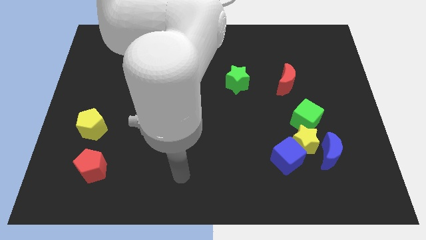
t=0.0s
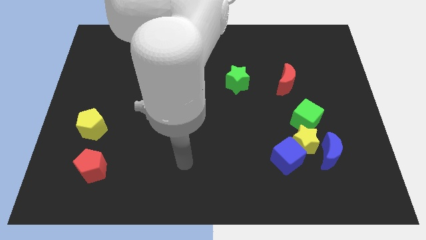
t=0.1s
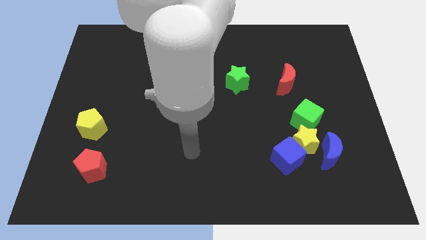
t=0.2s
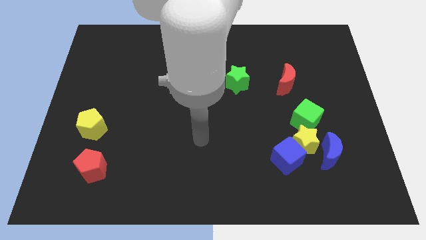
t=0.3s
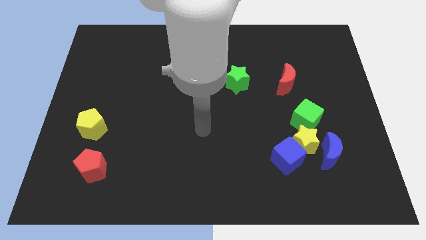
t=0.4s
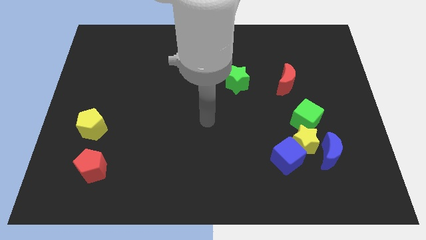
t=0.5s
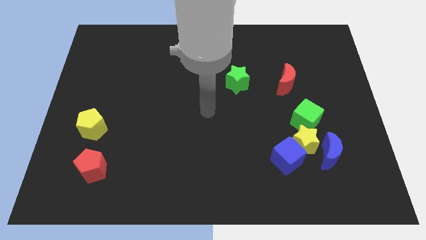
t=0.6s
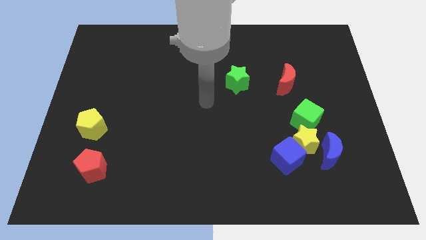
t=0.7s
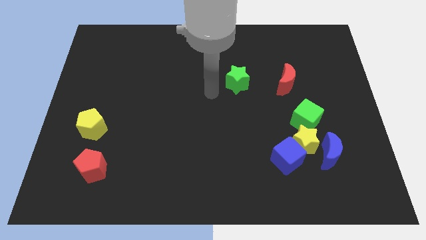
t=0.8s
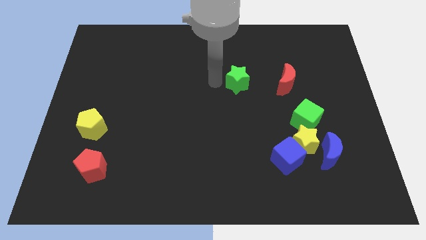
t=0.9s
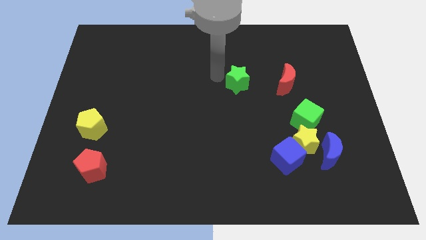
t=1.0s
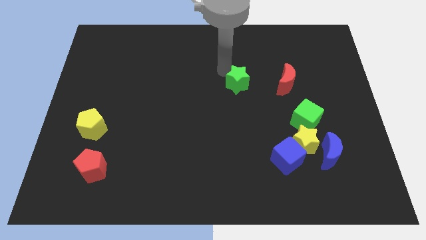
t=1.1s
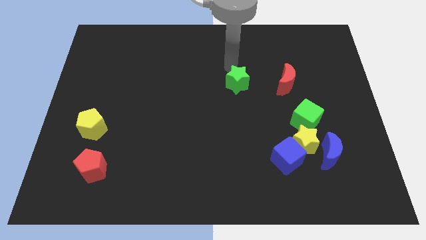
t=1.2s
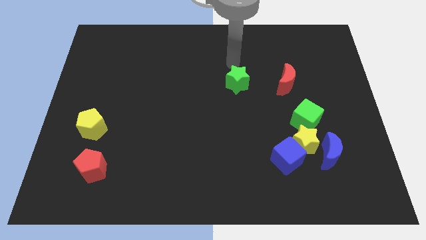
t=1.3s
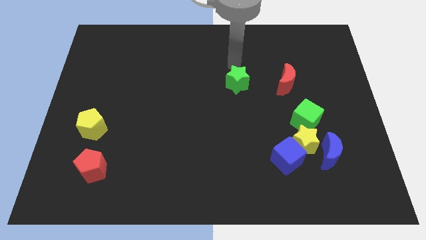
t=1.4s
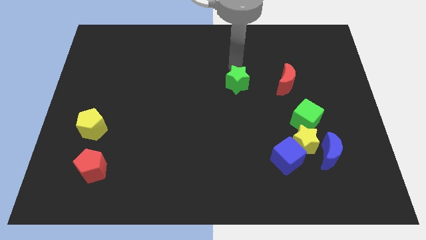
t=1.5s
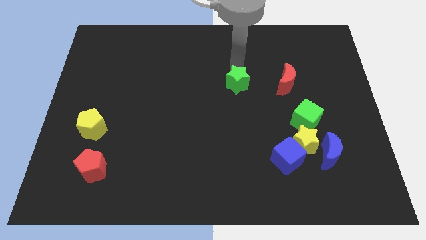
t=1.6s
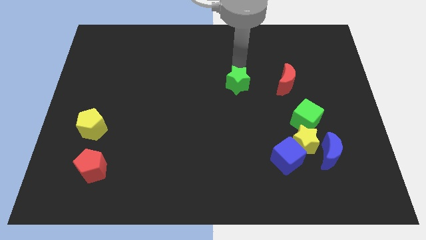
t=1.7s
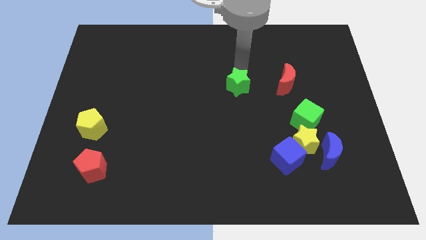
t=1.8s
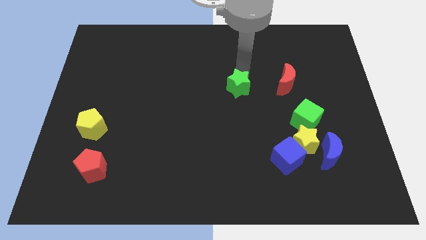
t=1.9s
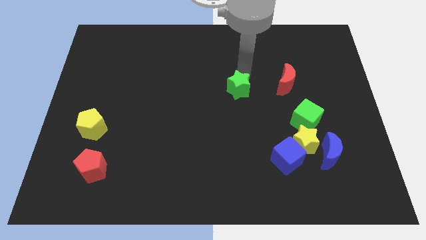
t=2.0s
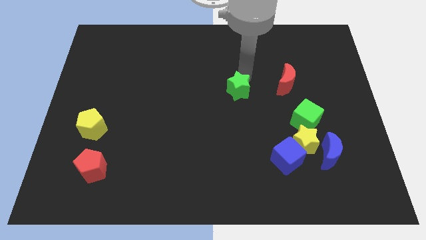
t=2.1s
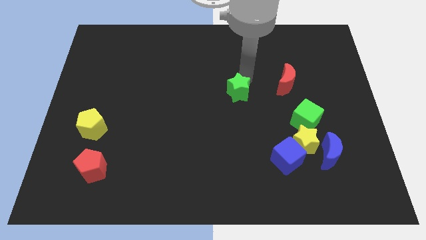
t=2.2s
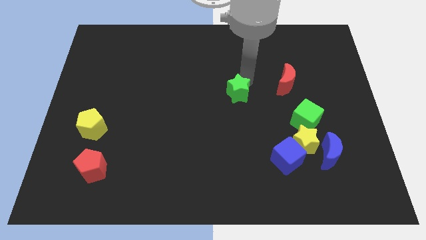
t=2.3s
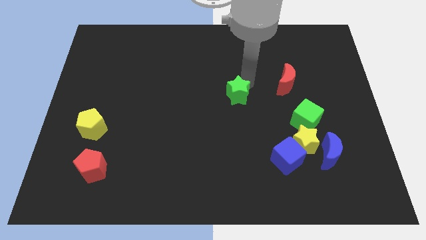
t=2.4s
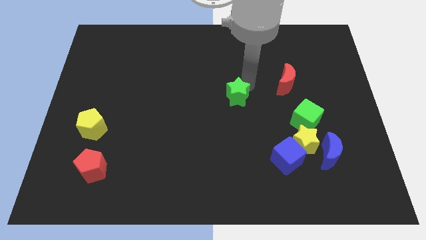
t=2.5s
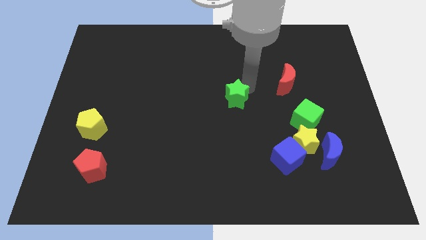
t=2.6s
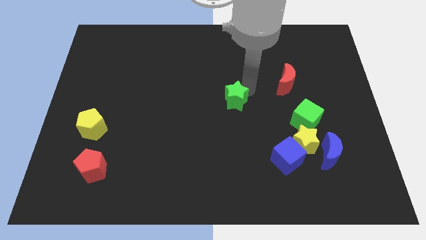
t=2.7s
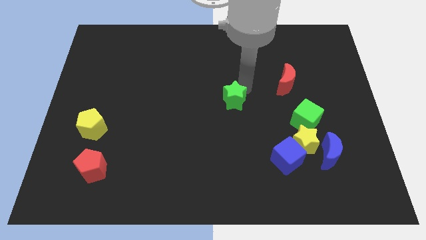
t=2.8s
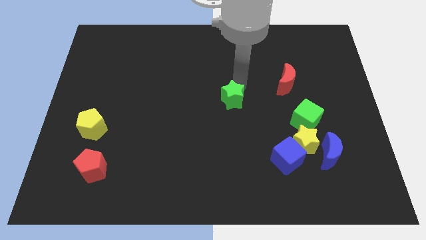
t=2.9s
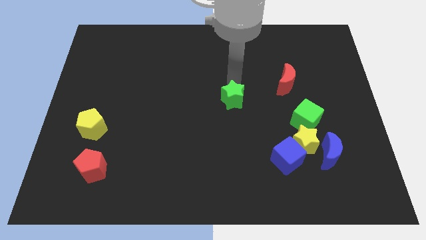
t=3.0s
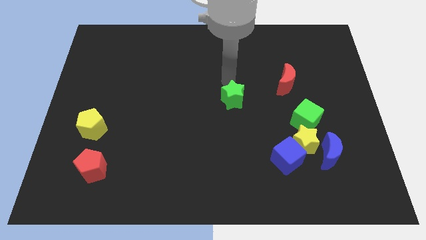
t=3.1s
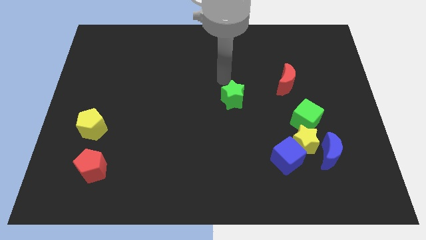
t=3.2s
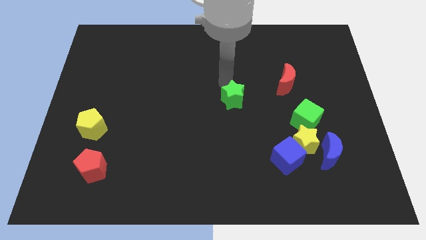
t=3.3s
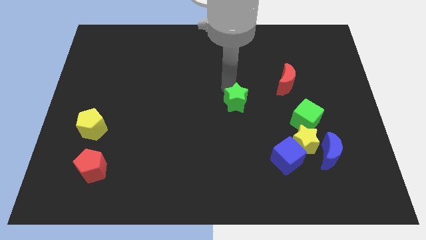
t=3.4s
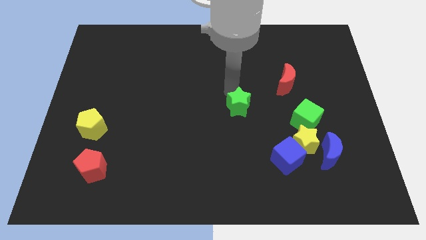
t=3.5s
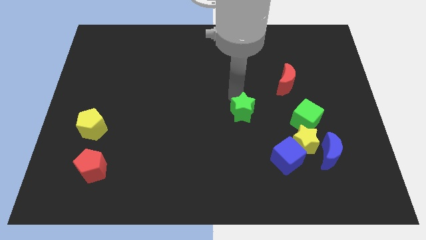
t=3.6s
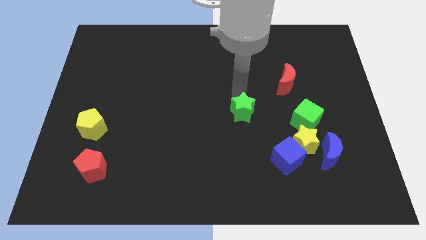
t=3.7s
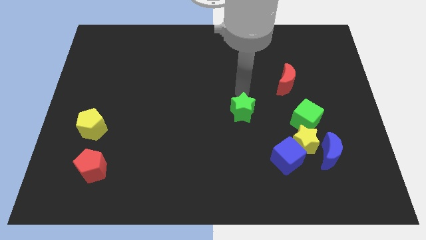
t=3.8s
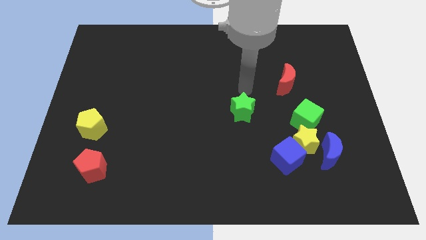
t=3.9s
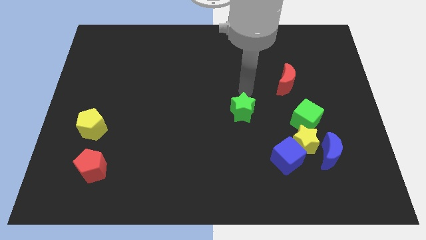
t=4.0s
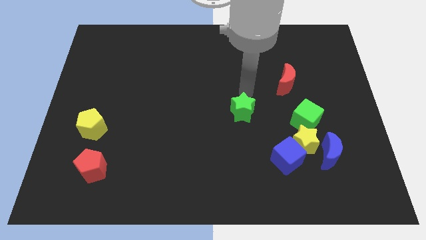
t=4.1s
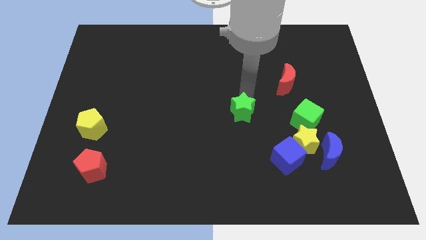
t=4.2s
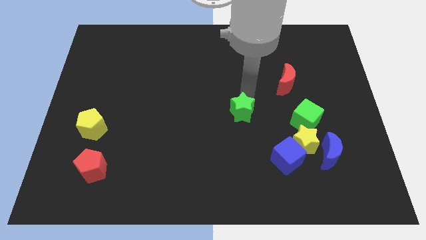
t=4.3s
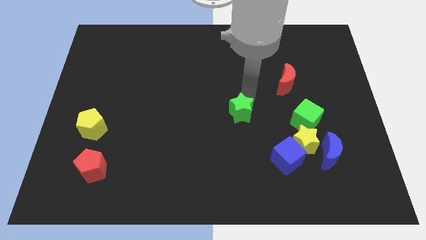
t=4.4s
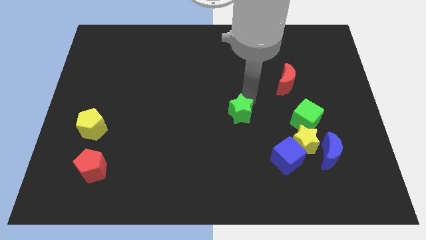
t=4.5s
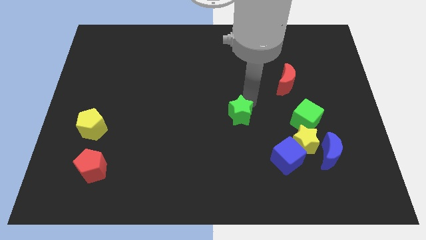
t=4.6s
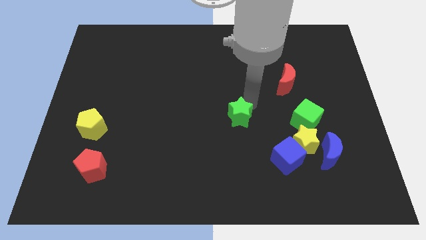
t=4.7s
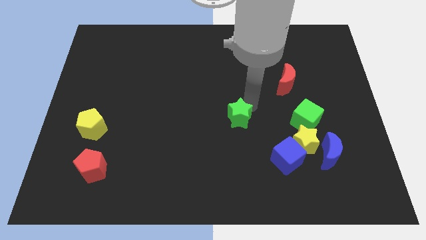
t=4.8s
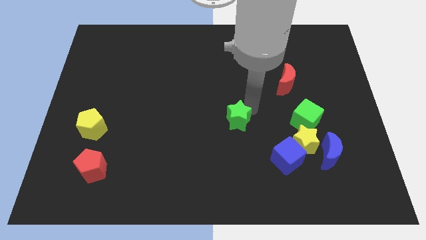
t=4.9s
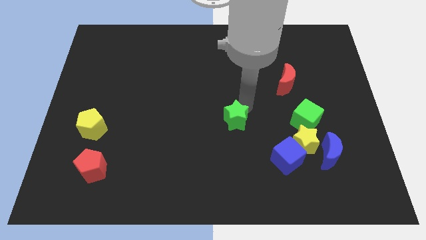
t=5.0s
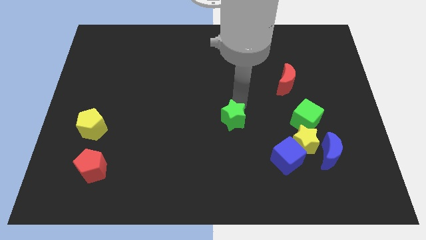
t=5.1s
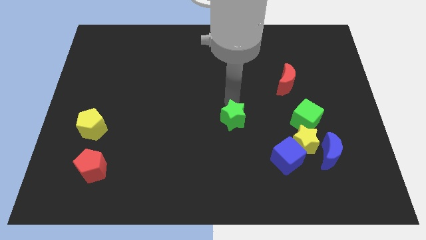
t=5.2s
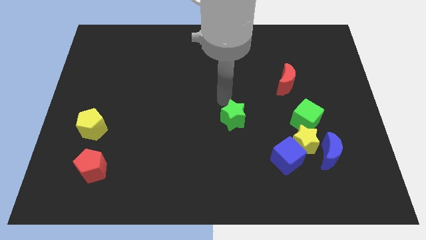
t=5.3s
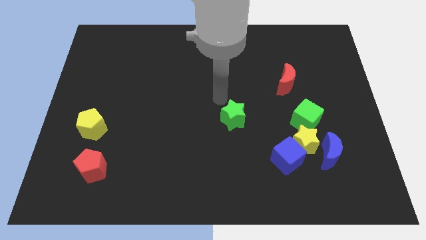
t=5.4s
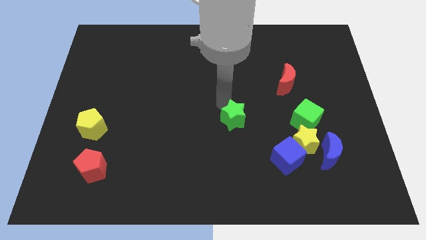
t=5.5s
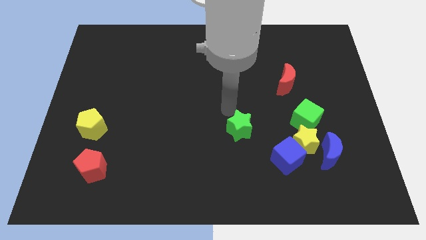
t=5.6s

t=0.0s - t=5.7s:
put the green star to the left side of the yellow star

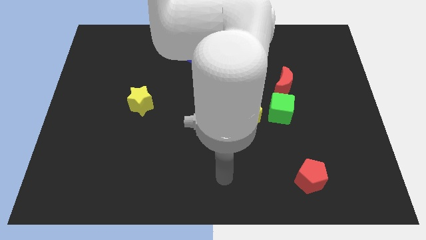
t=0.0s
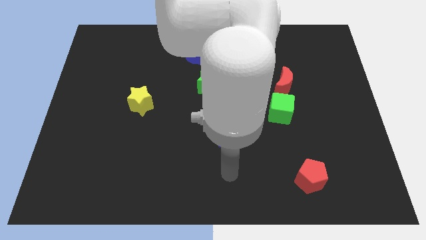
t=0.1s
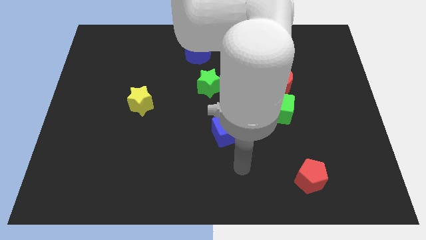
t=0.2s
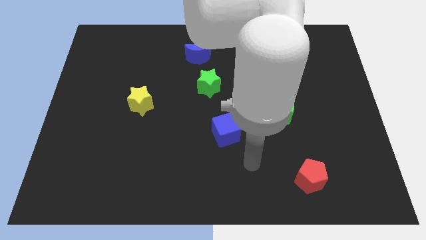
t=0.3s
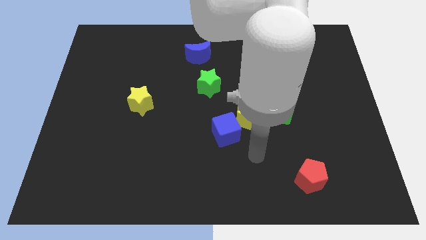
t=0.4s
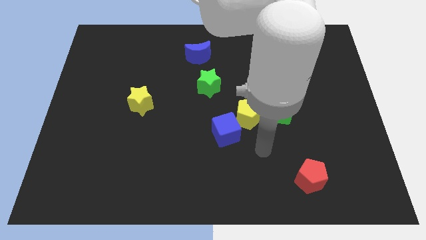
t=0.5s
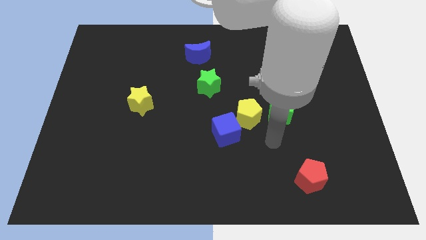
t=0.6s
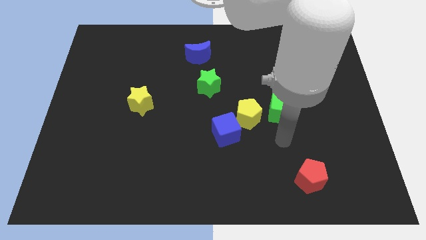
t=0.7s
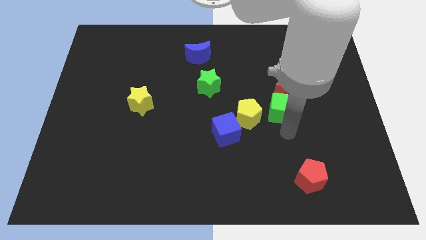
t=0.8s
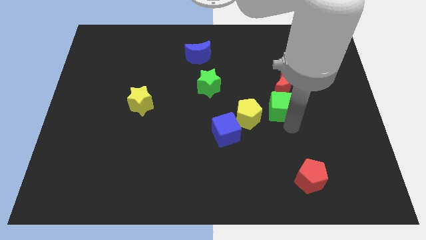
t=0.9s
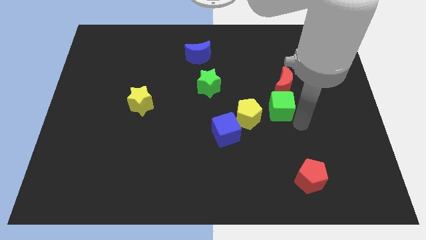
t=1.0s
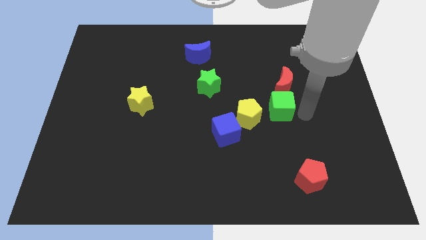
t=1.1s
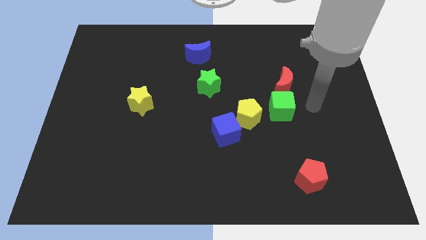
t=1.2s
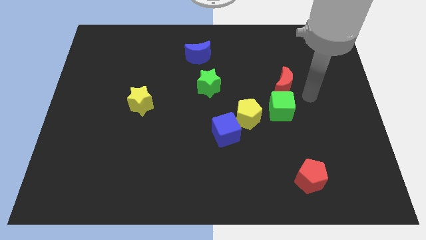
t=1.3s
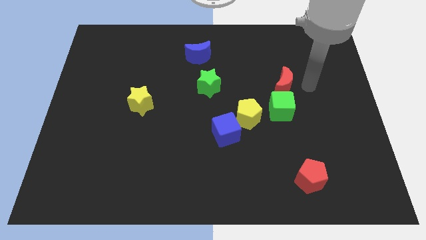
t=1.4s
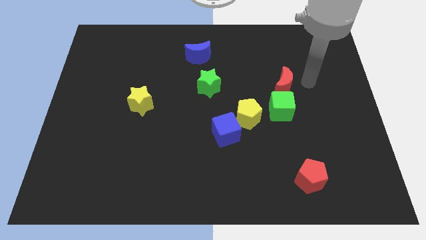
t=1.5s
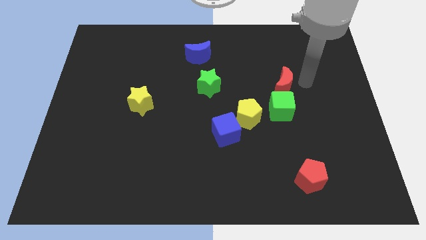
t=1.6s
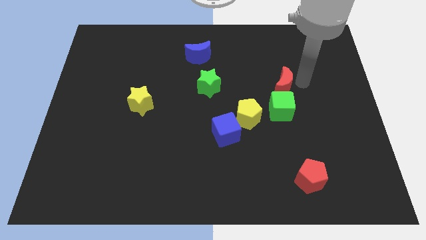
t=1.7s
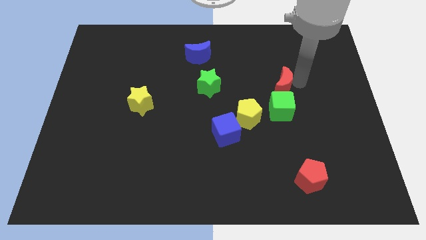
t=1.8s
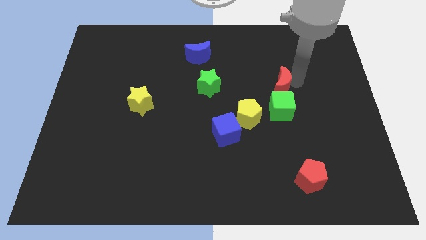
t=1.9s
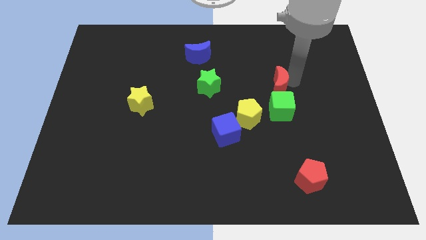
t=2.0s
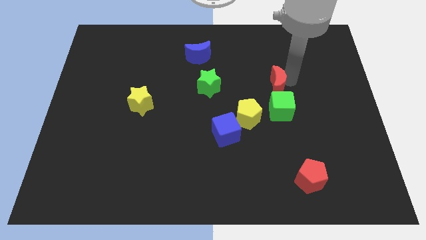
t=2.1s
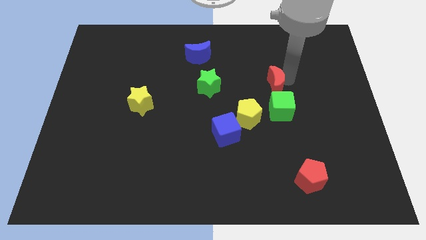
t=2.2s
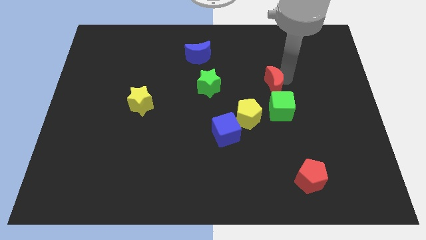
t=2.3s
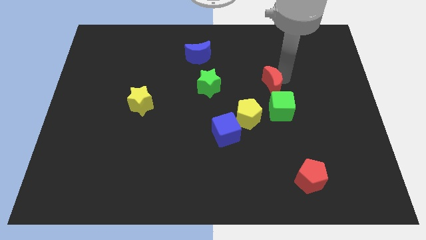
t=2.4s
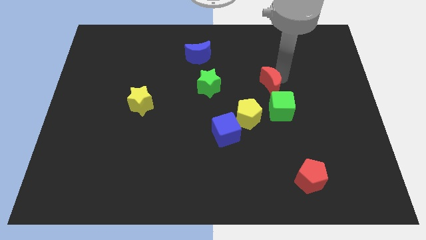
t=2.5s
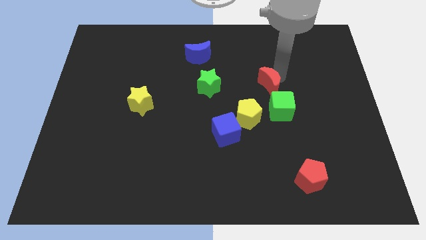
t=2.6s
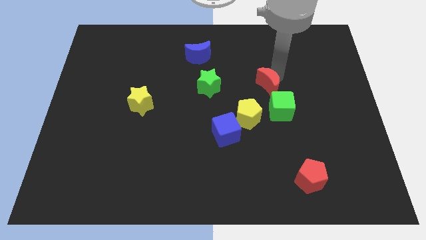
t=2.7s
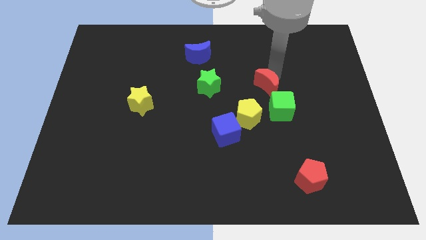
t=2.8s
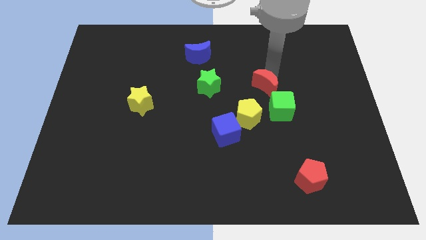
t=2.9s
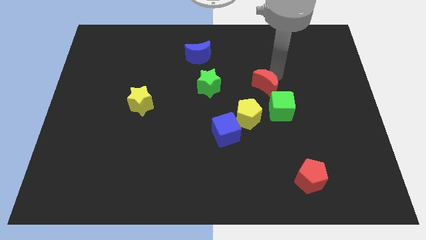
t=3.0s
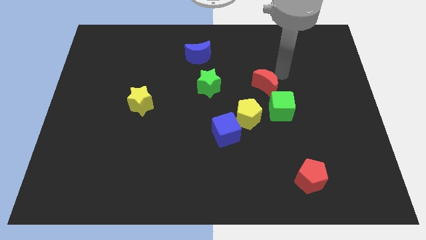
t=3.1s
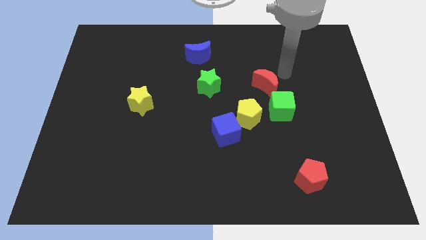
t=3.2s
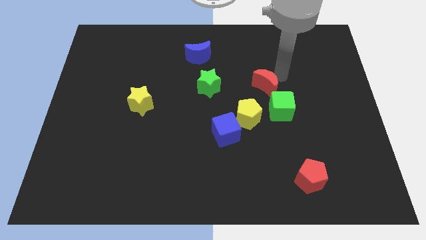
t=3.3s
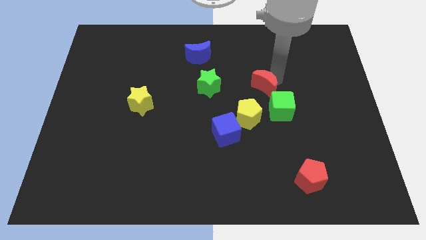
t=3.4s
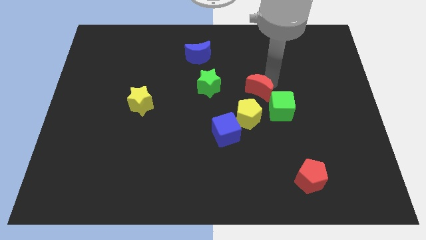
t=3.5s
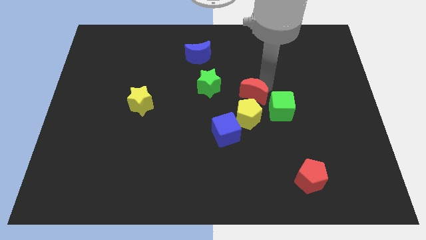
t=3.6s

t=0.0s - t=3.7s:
put the red moon to the left side of the green cube
